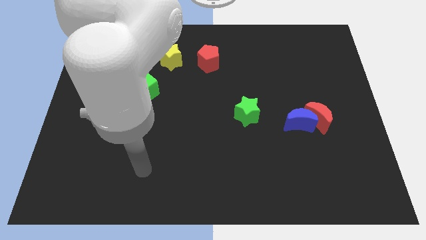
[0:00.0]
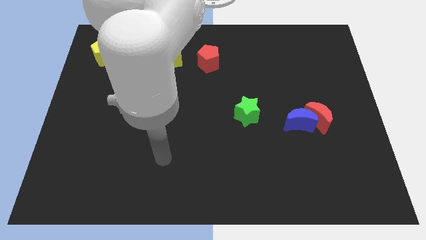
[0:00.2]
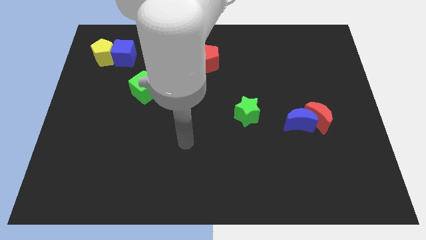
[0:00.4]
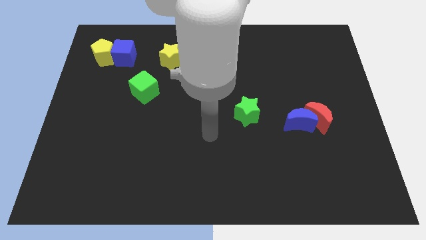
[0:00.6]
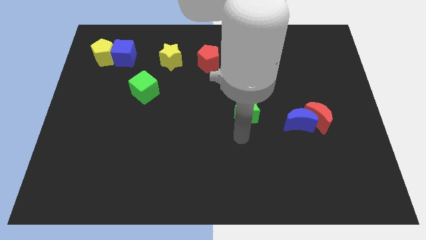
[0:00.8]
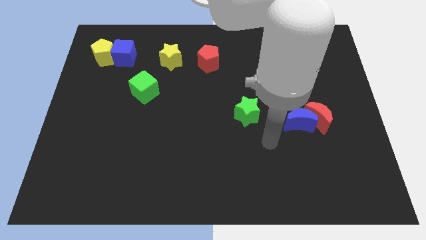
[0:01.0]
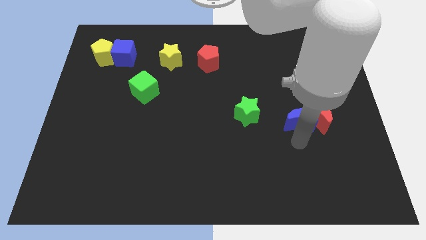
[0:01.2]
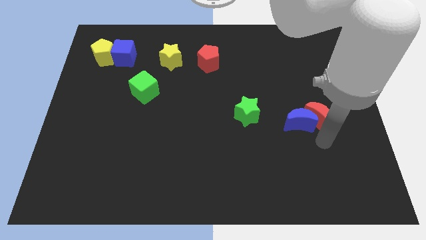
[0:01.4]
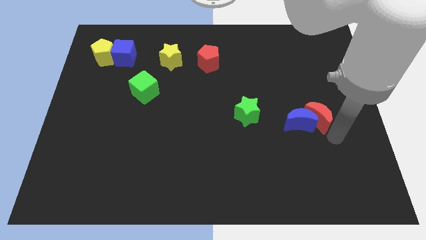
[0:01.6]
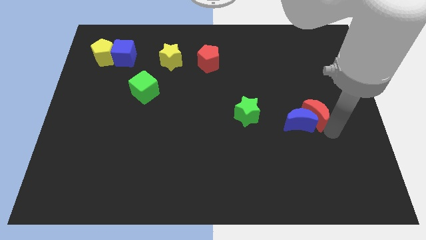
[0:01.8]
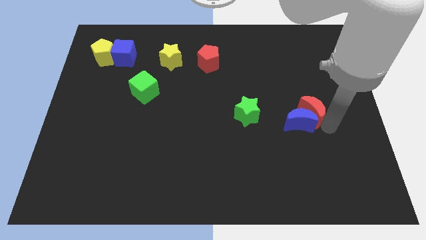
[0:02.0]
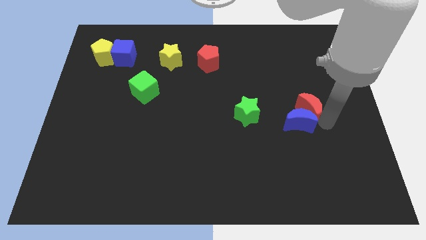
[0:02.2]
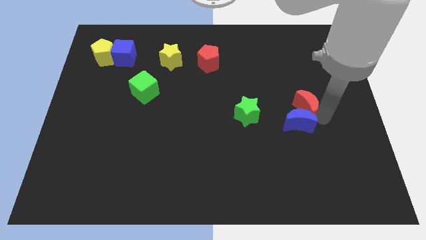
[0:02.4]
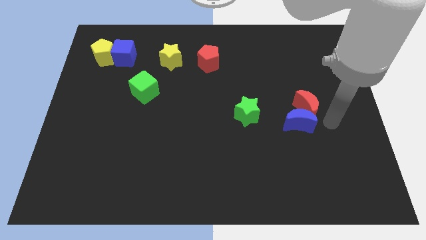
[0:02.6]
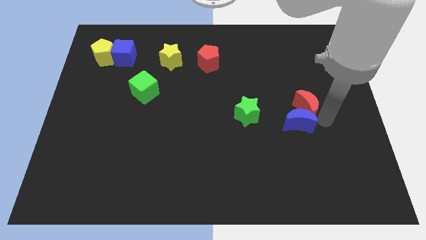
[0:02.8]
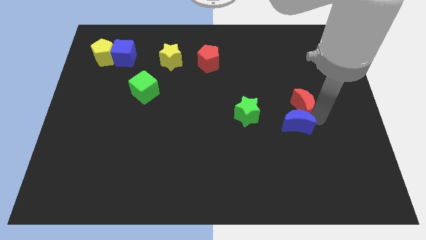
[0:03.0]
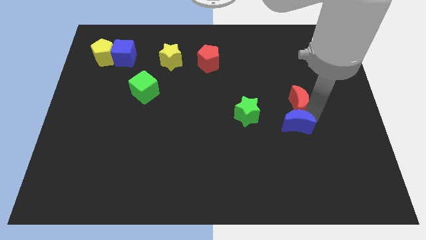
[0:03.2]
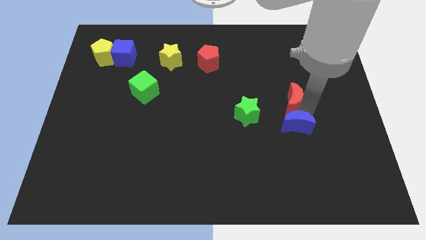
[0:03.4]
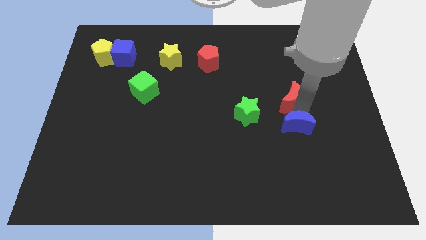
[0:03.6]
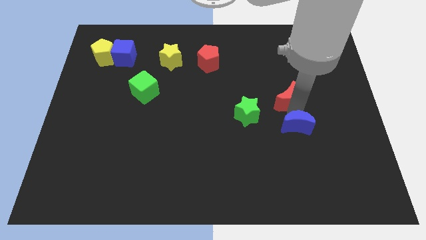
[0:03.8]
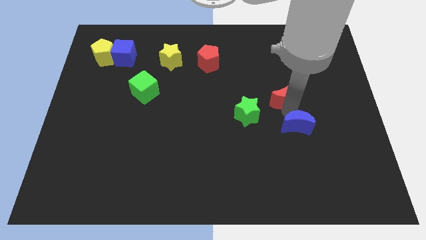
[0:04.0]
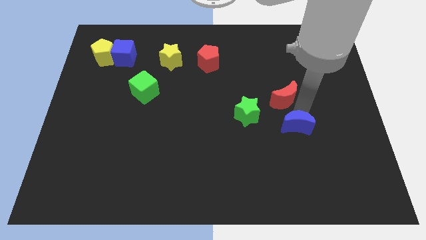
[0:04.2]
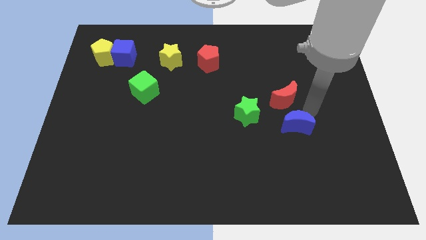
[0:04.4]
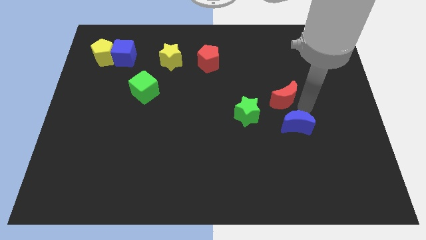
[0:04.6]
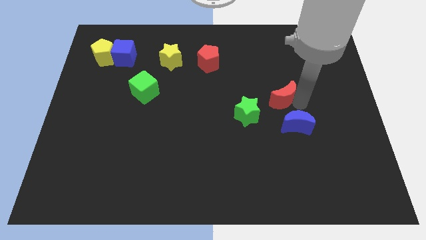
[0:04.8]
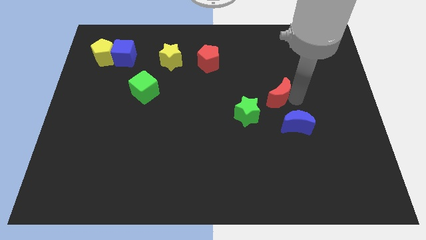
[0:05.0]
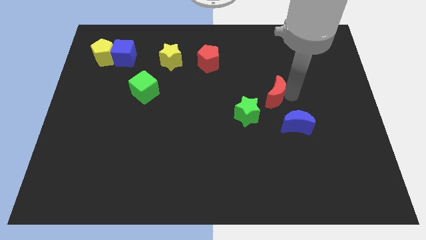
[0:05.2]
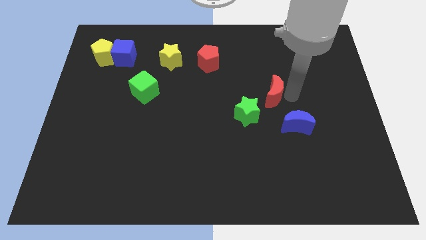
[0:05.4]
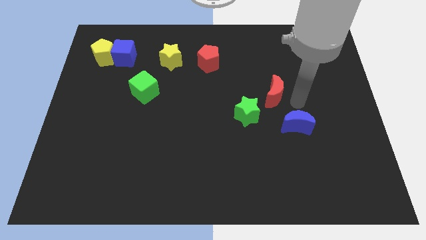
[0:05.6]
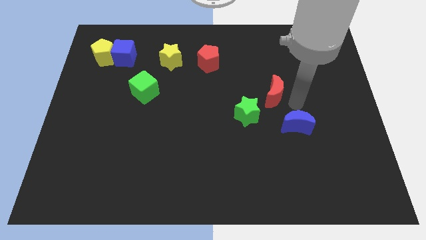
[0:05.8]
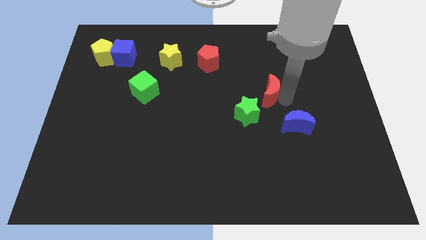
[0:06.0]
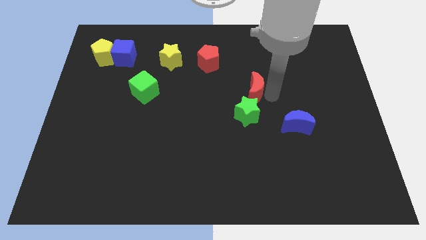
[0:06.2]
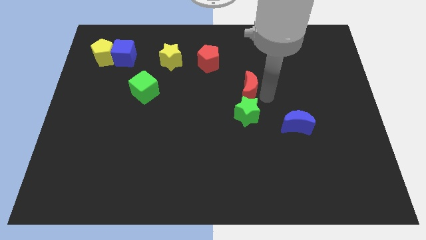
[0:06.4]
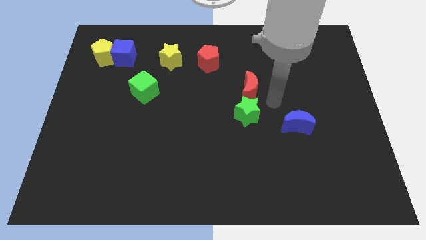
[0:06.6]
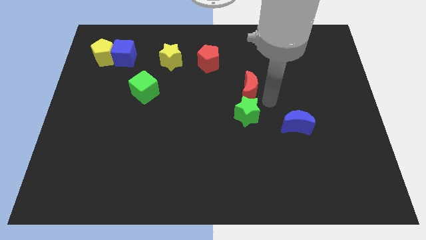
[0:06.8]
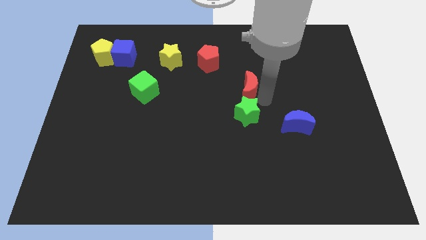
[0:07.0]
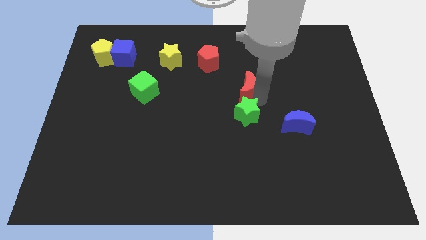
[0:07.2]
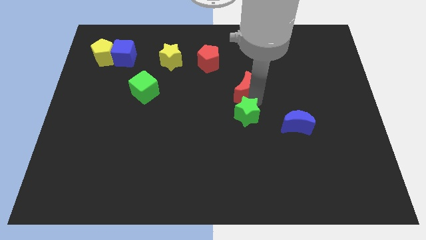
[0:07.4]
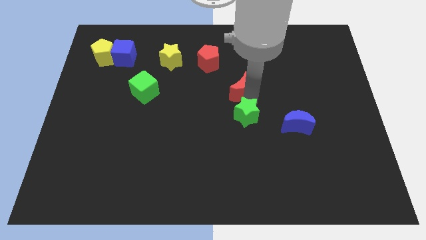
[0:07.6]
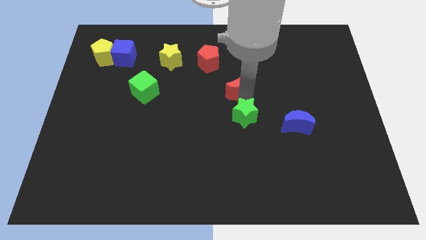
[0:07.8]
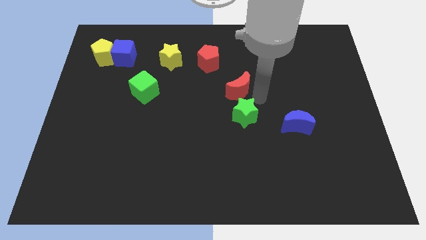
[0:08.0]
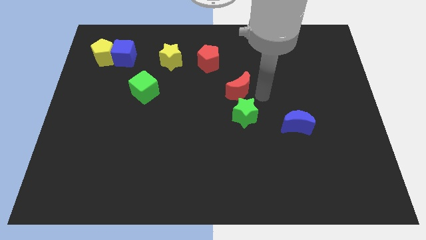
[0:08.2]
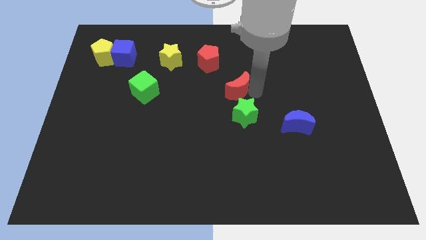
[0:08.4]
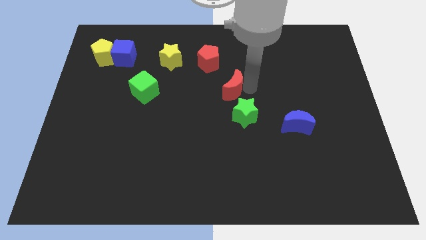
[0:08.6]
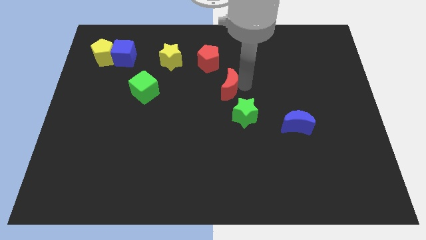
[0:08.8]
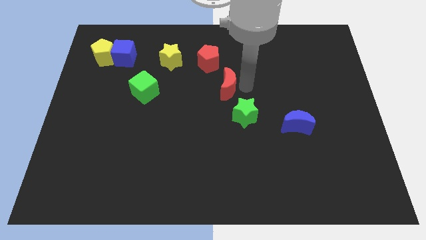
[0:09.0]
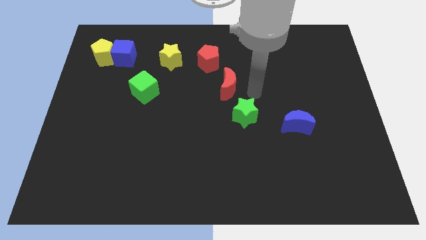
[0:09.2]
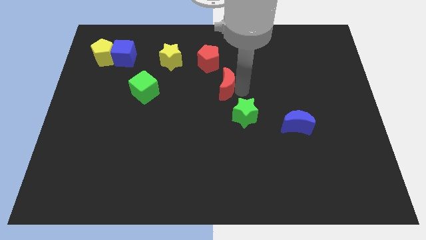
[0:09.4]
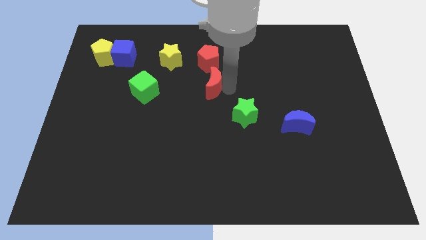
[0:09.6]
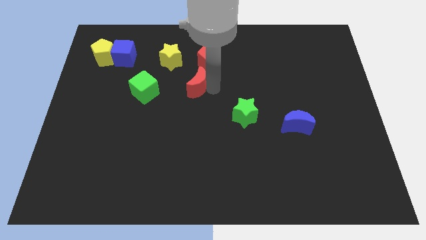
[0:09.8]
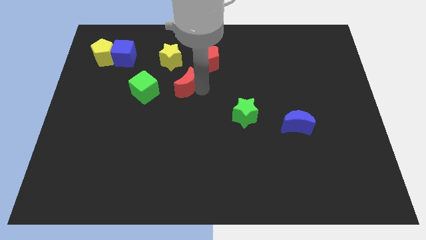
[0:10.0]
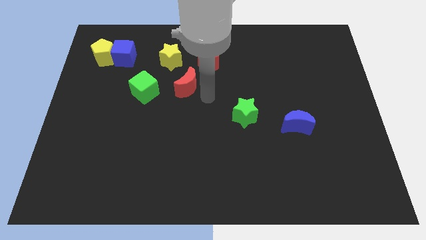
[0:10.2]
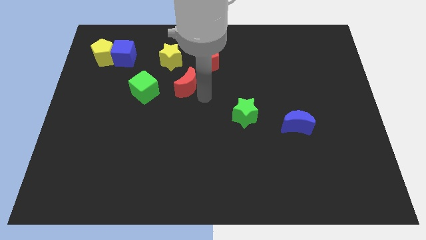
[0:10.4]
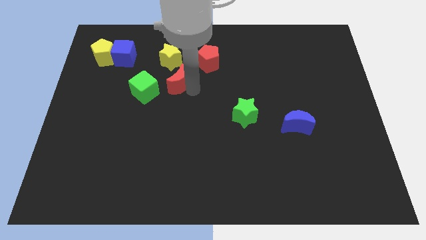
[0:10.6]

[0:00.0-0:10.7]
move the red moon to the top right side of the green cube

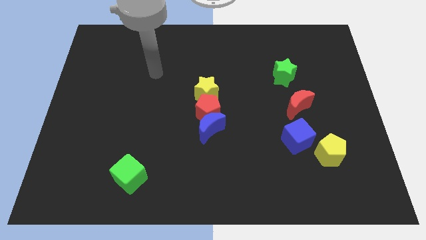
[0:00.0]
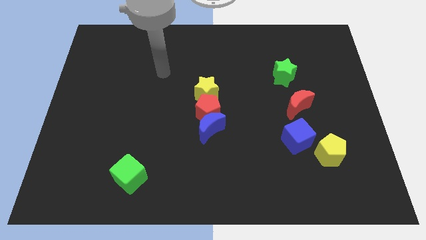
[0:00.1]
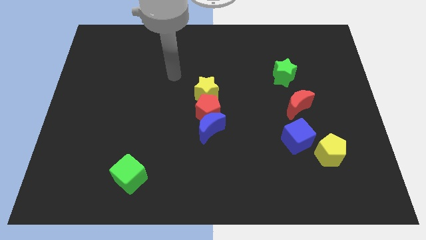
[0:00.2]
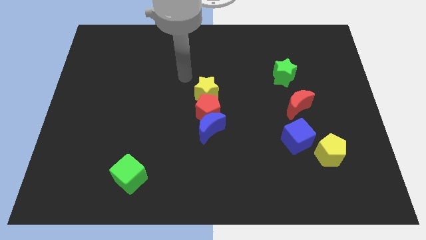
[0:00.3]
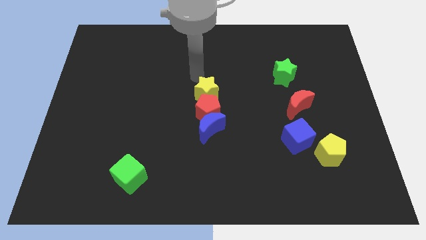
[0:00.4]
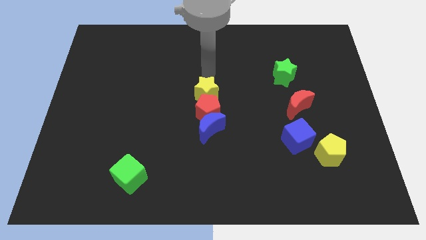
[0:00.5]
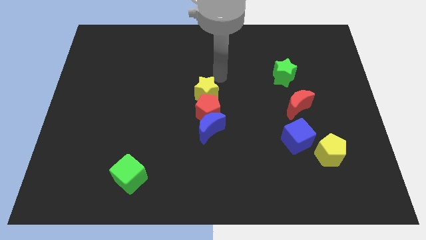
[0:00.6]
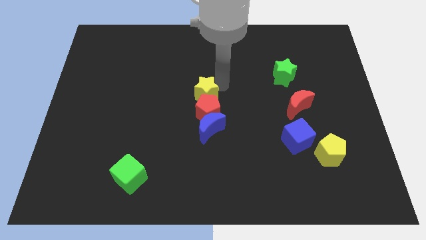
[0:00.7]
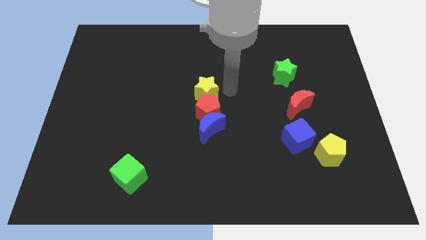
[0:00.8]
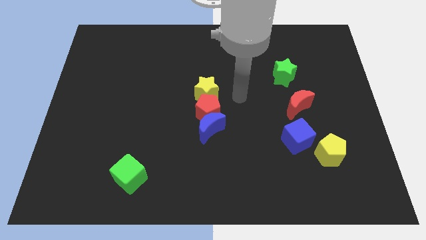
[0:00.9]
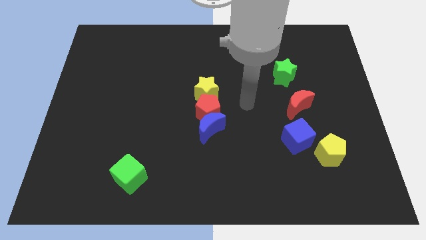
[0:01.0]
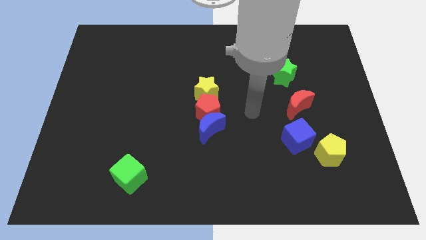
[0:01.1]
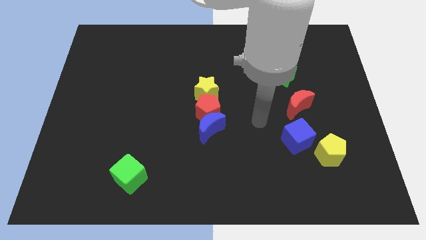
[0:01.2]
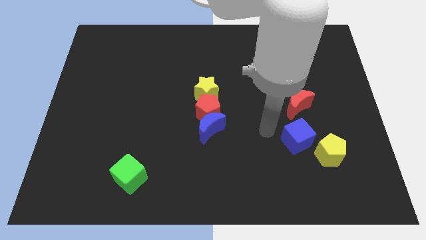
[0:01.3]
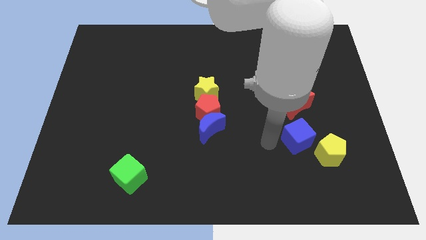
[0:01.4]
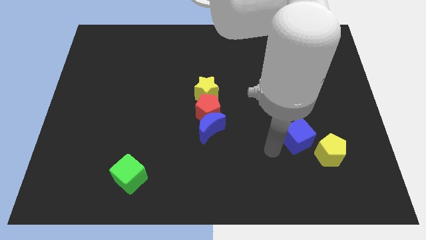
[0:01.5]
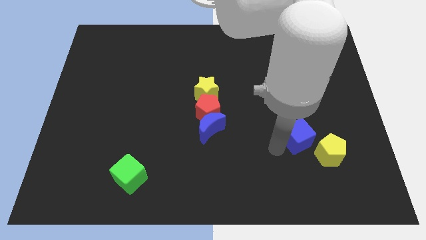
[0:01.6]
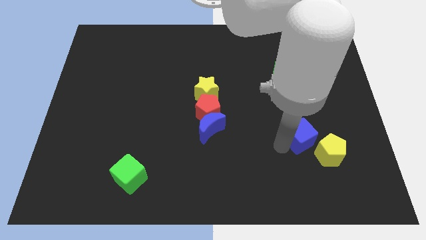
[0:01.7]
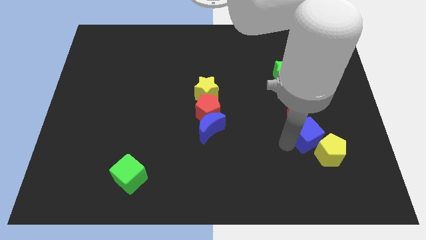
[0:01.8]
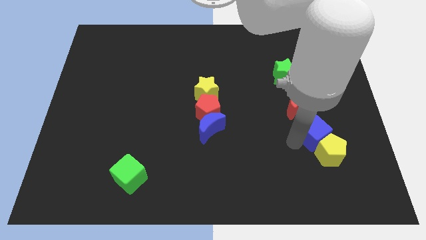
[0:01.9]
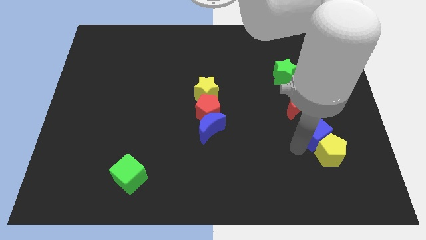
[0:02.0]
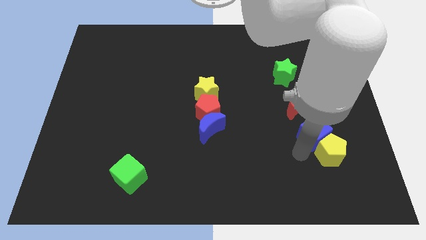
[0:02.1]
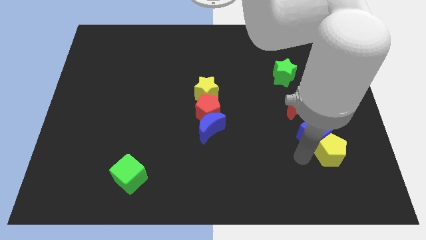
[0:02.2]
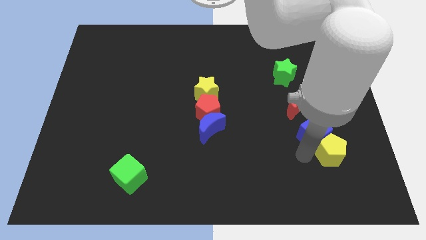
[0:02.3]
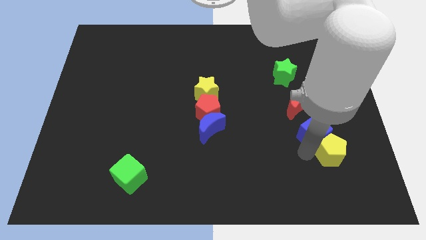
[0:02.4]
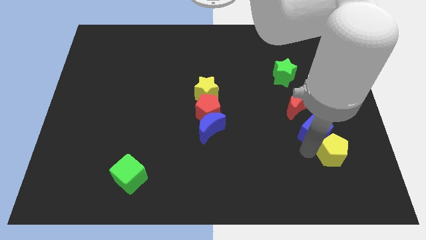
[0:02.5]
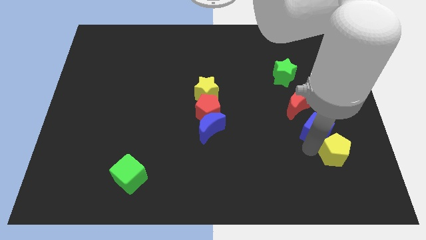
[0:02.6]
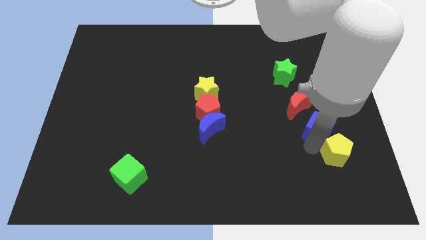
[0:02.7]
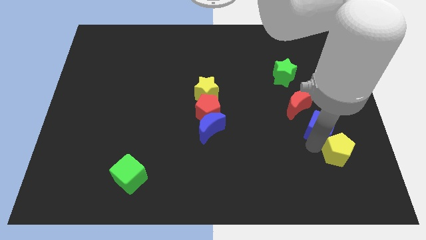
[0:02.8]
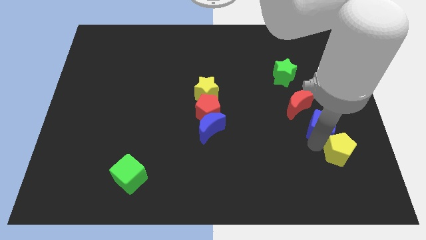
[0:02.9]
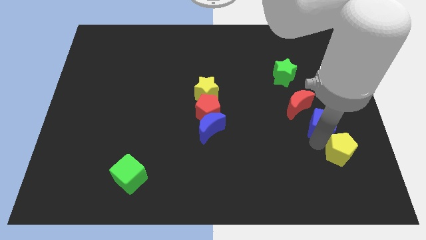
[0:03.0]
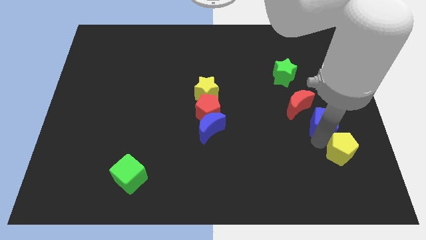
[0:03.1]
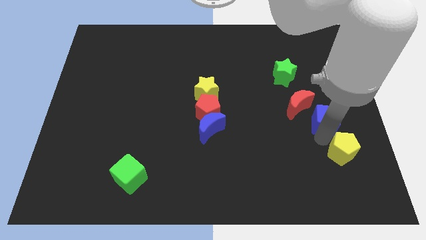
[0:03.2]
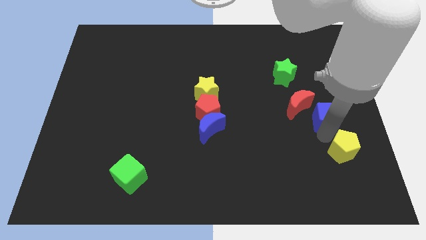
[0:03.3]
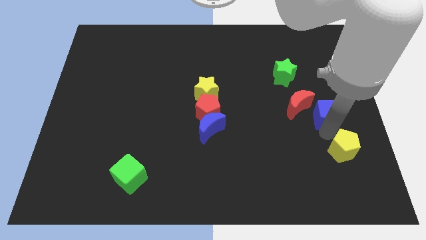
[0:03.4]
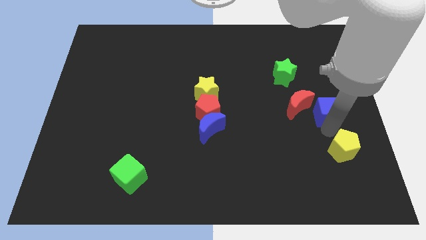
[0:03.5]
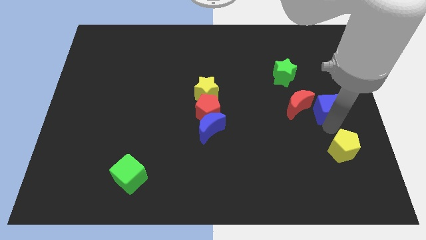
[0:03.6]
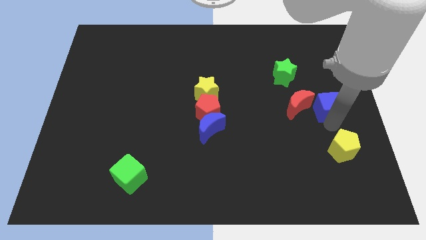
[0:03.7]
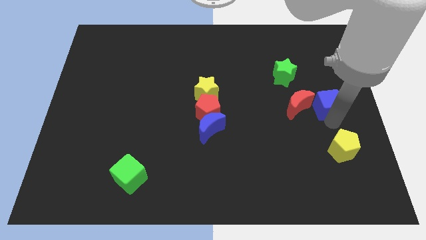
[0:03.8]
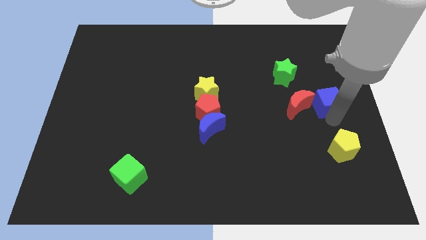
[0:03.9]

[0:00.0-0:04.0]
push the blue cube diagonally up and to the right of the red moon
